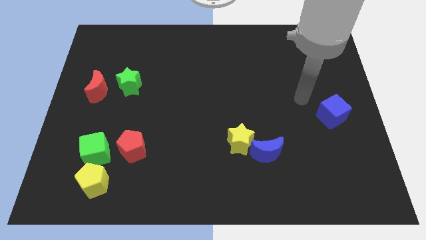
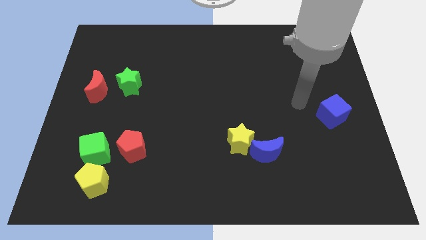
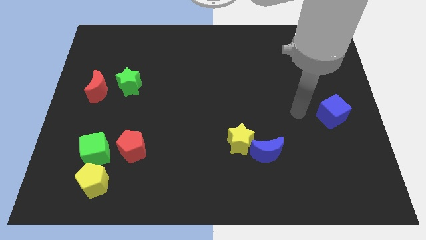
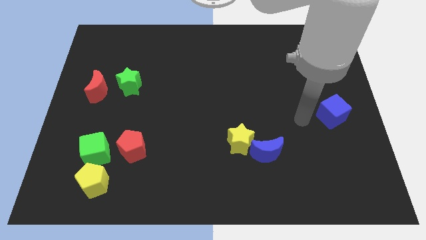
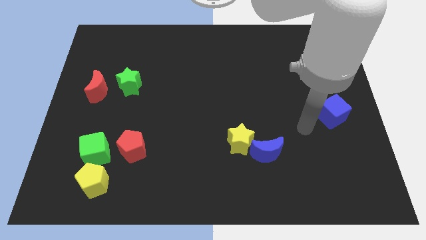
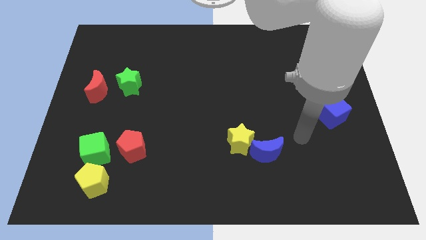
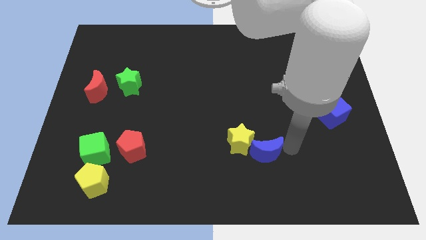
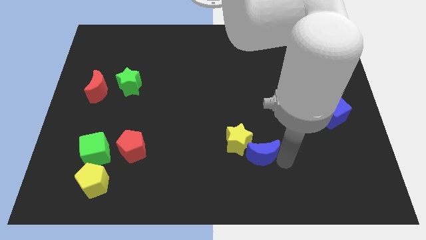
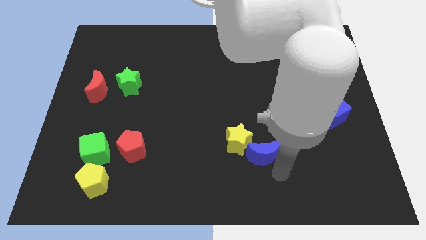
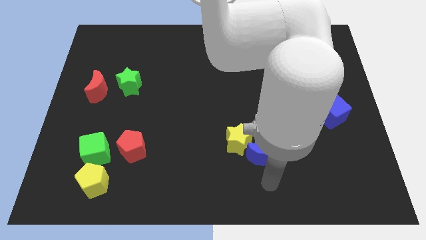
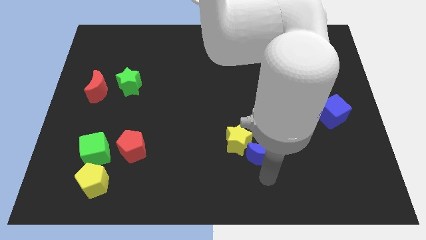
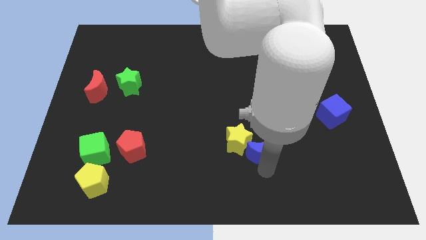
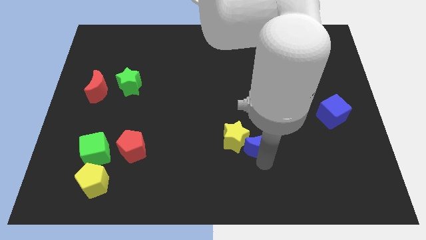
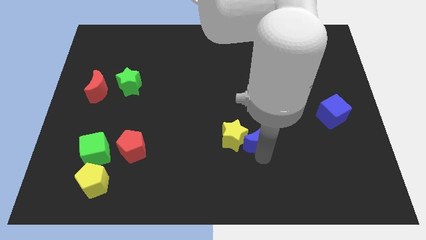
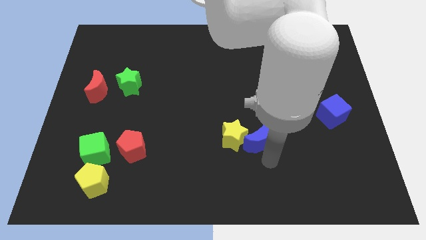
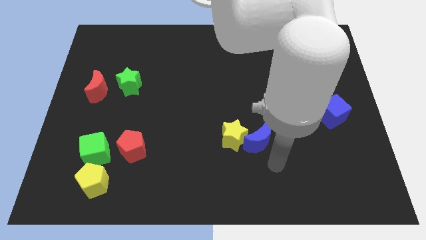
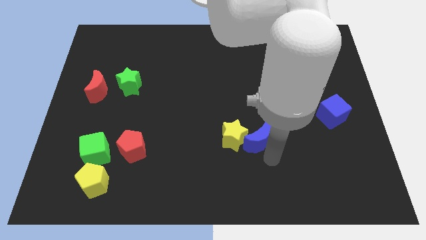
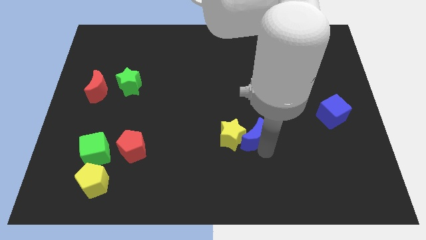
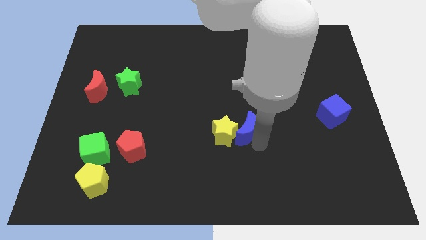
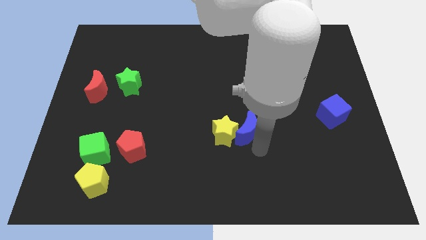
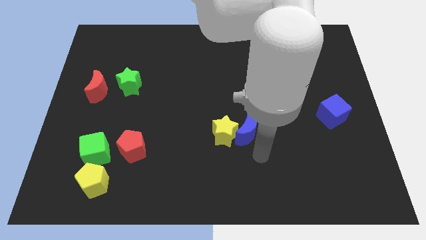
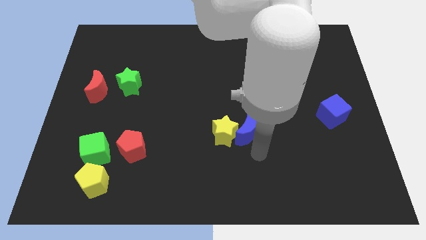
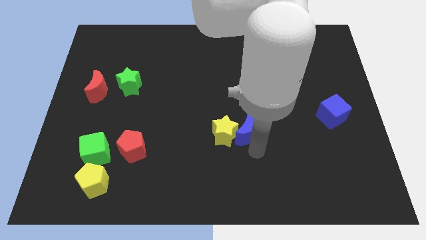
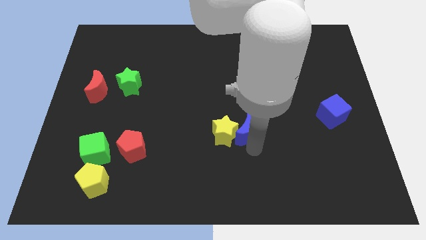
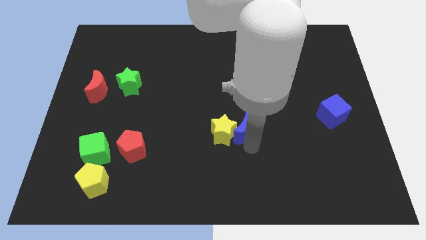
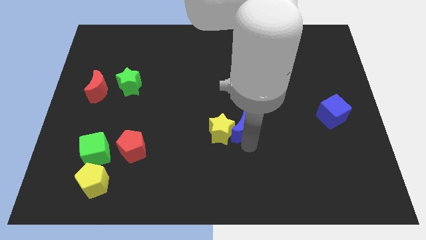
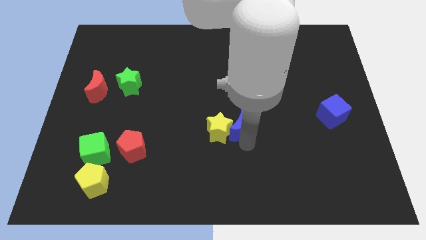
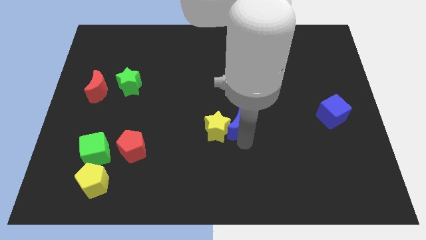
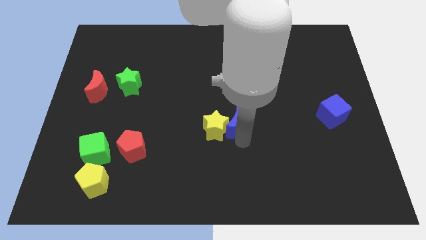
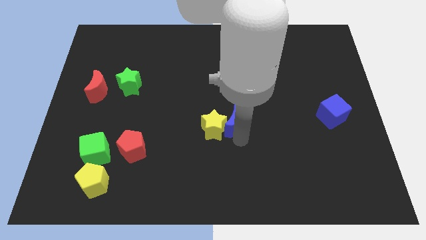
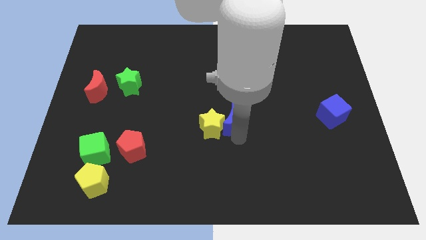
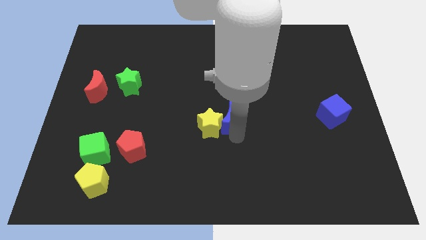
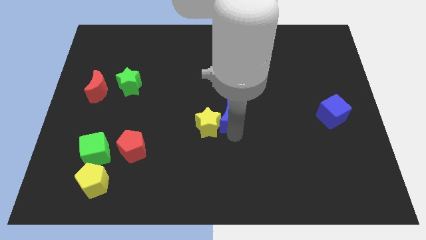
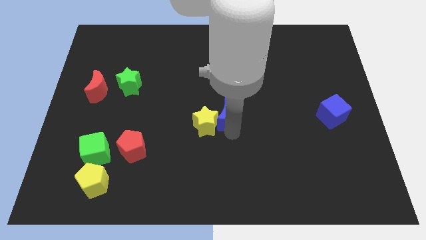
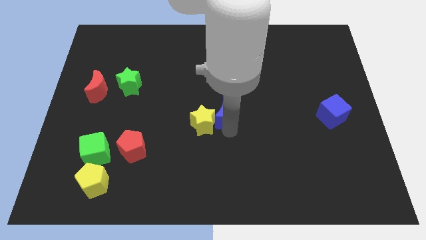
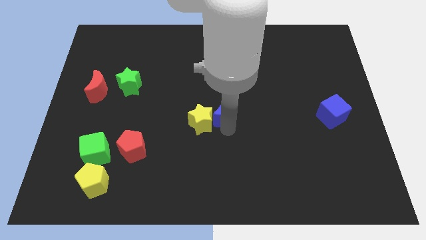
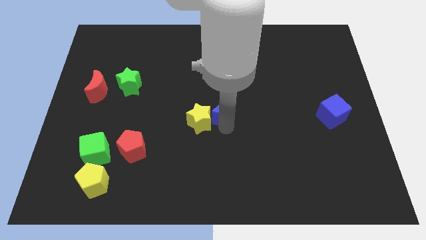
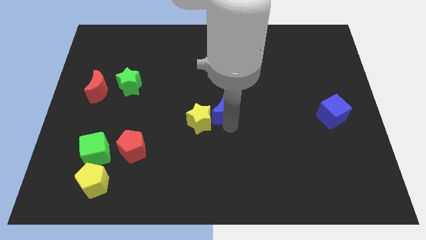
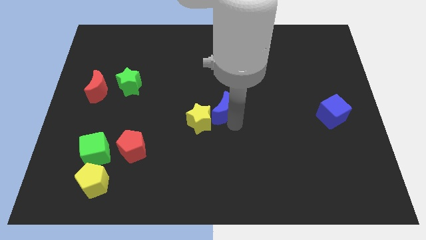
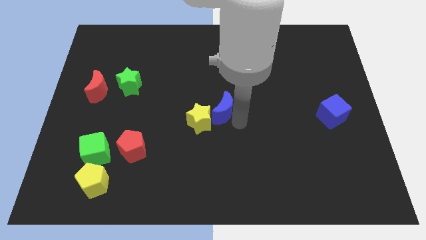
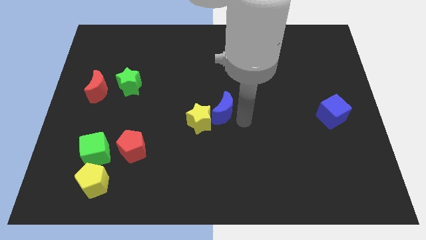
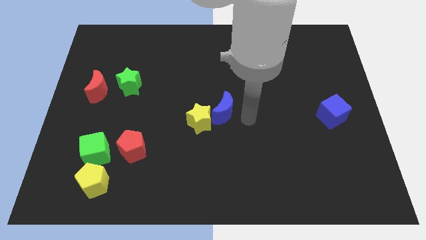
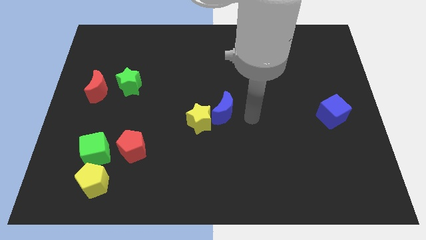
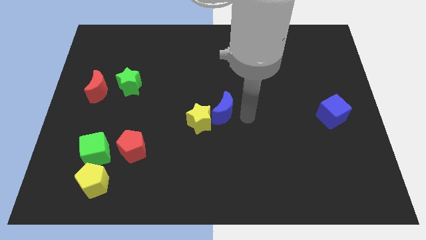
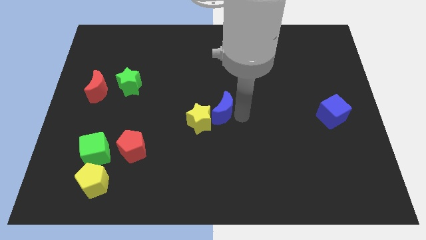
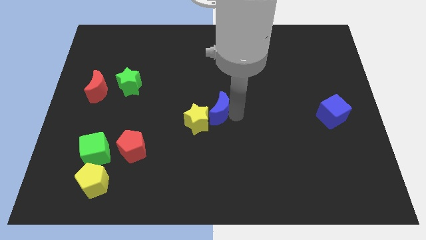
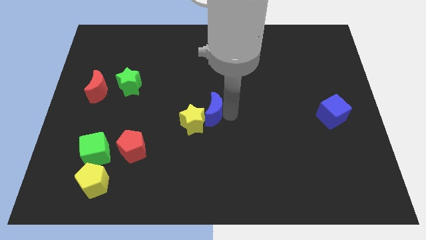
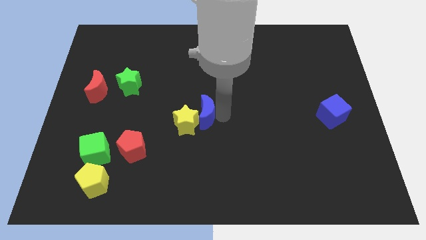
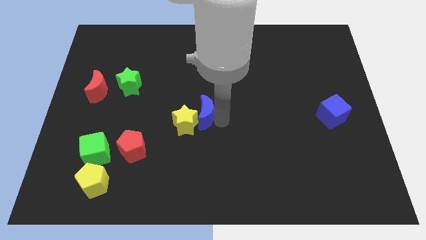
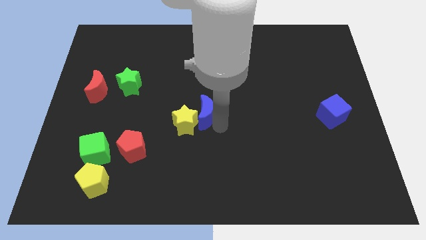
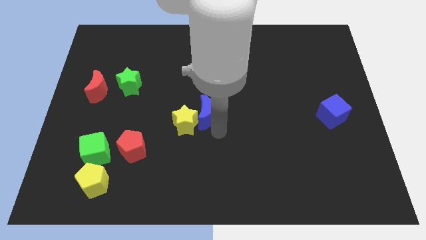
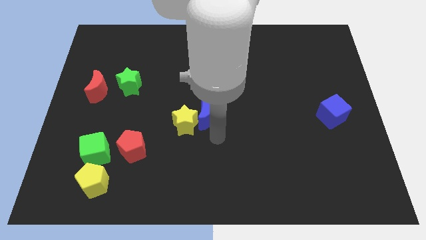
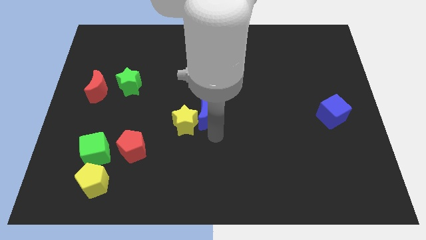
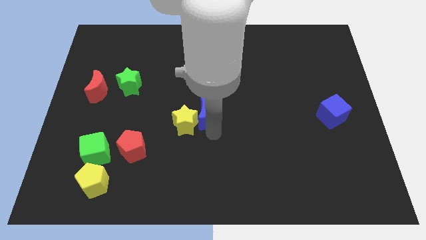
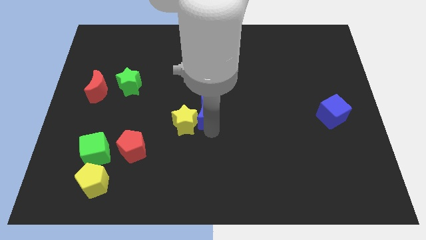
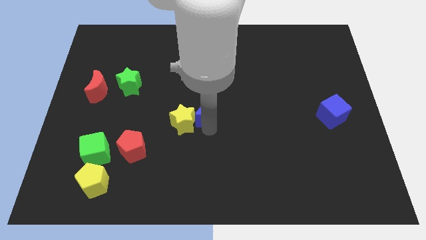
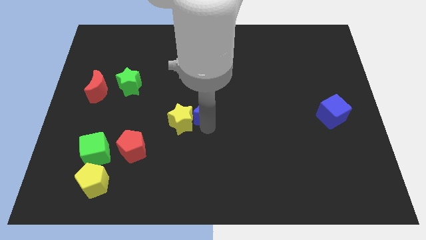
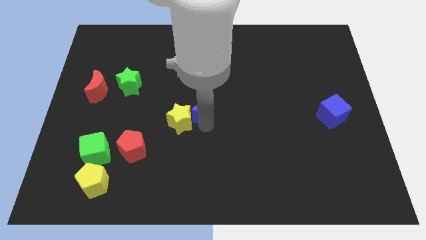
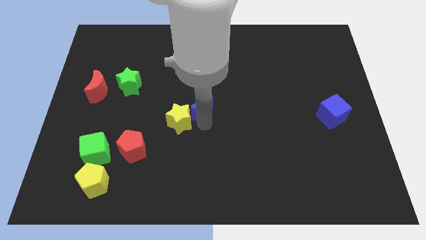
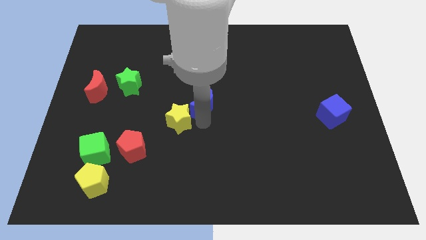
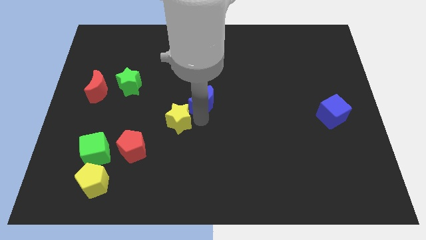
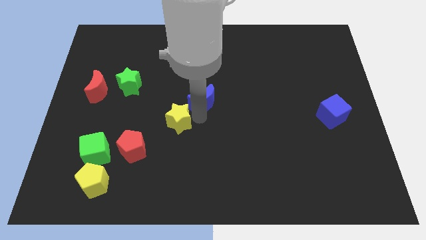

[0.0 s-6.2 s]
move the blue moon up and then to the left

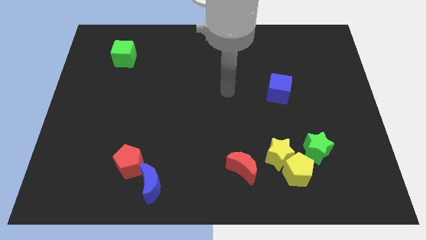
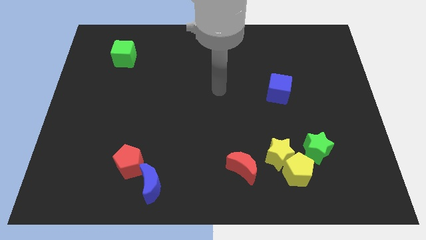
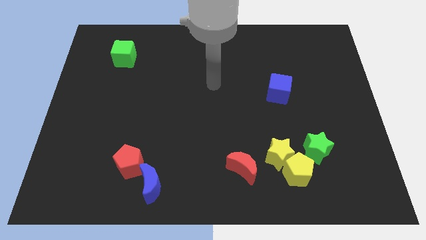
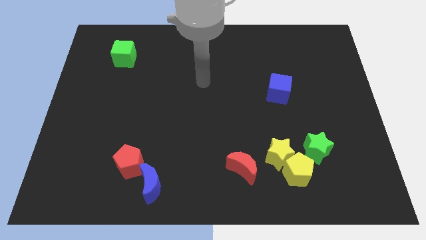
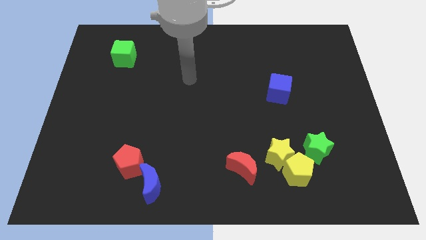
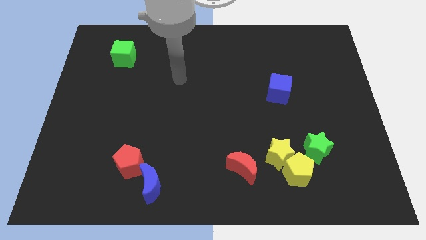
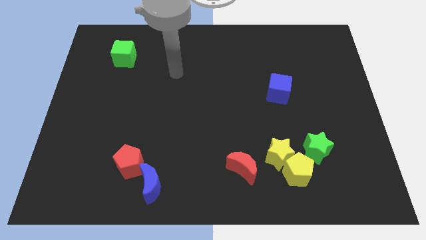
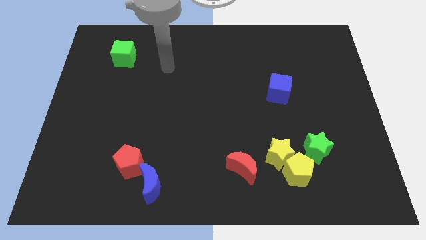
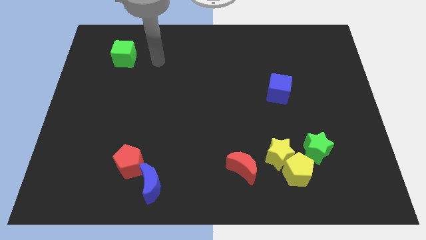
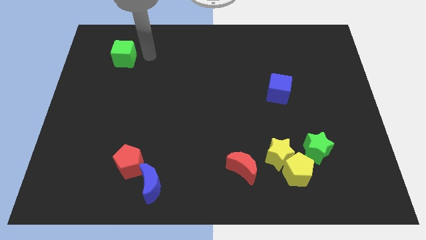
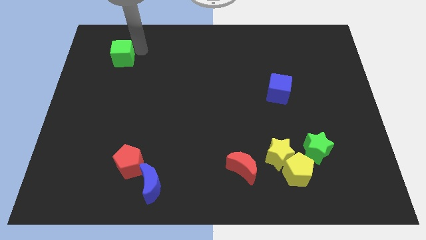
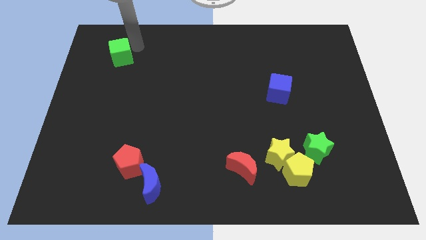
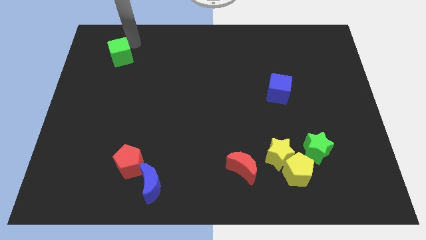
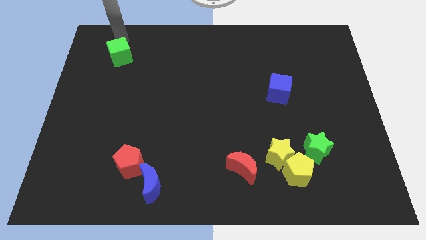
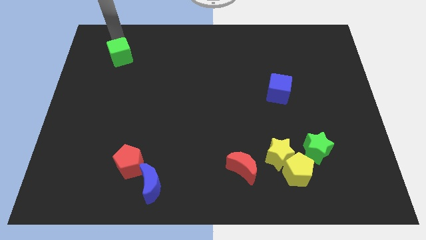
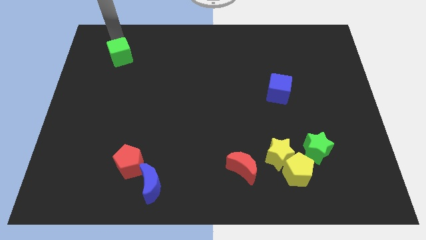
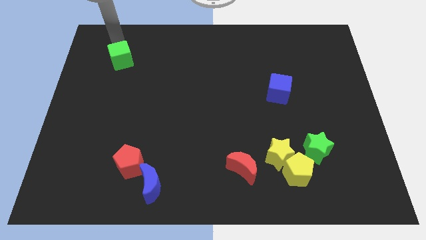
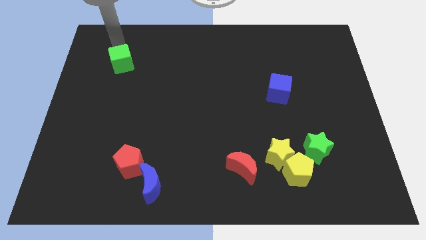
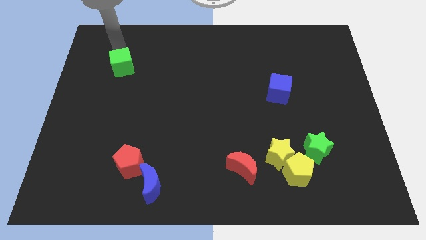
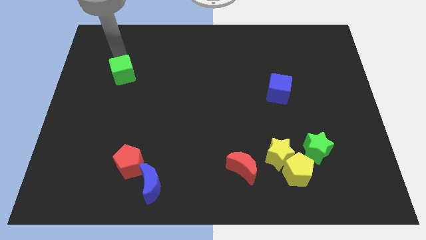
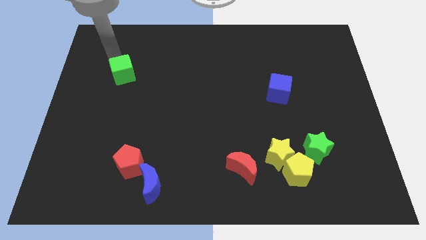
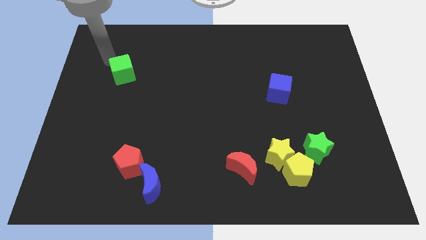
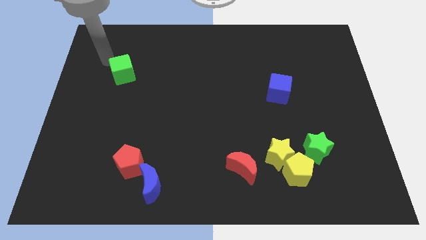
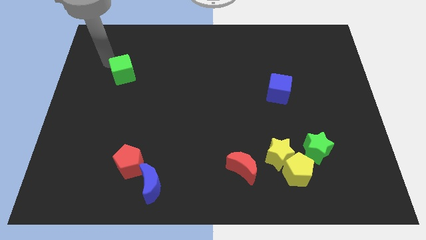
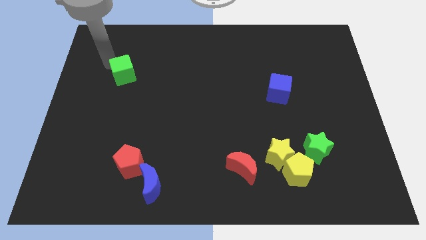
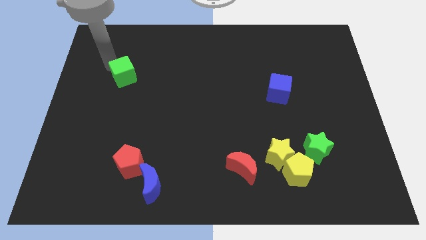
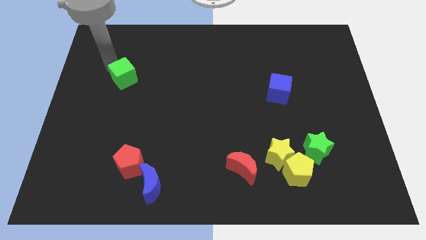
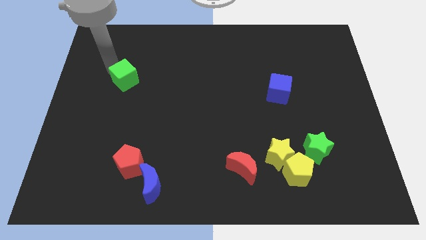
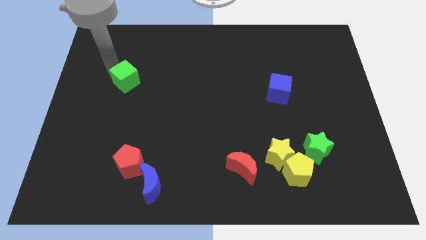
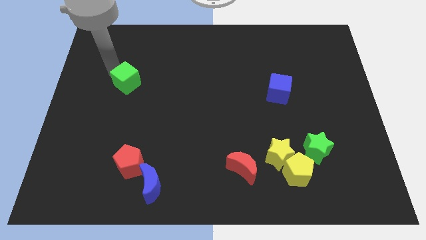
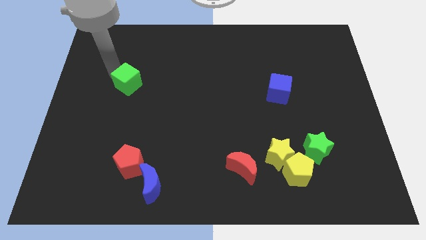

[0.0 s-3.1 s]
move the green cube a little downwards and then right
